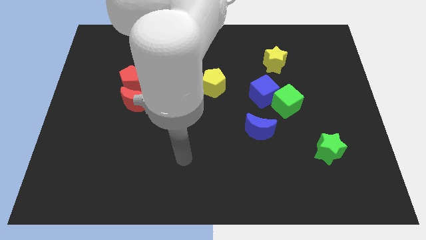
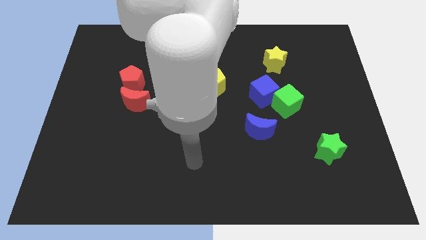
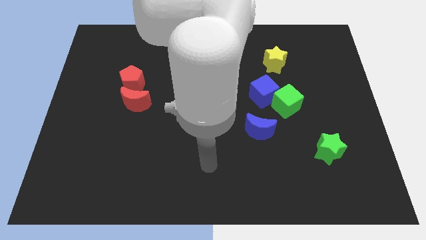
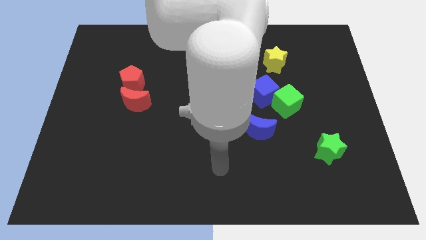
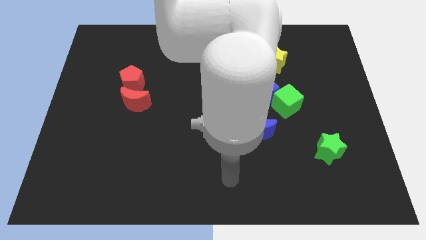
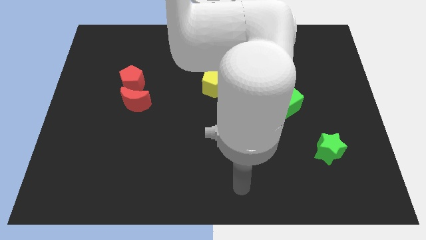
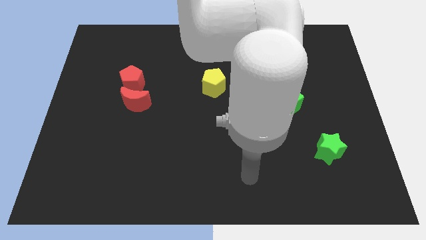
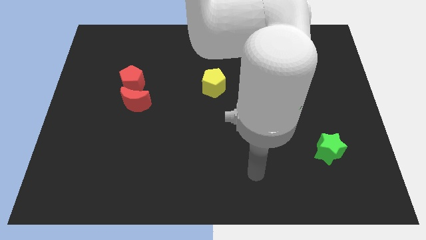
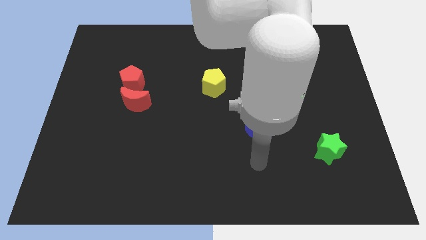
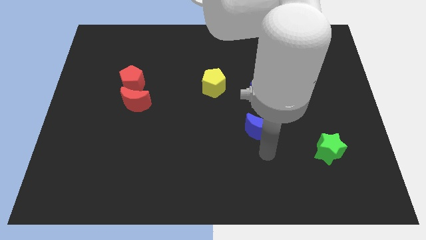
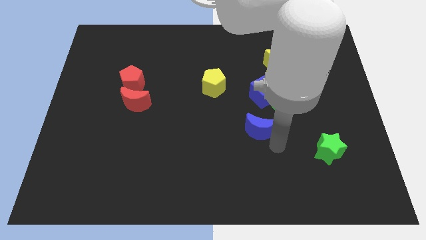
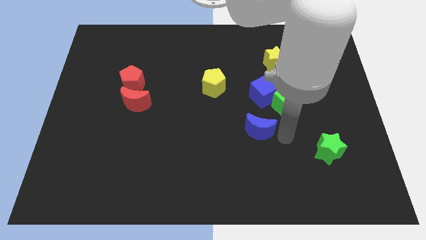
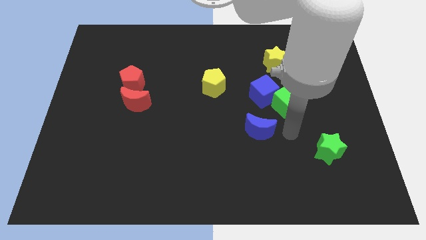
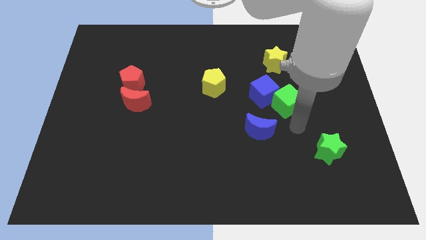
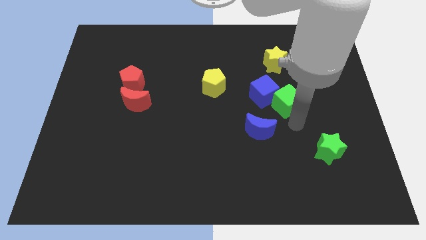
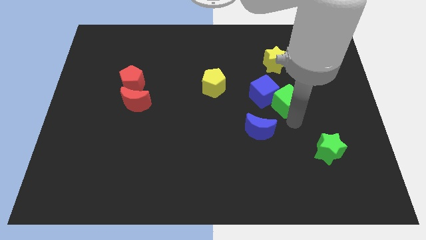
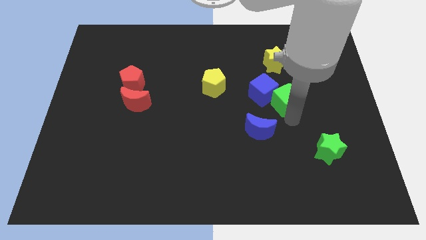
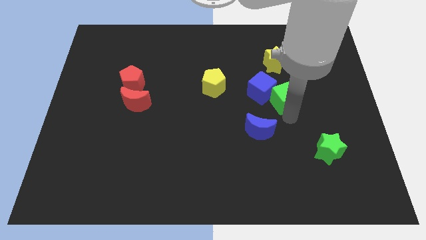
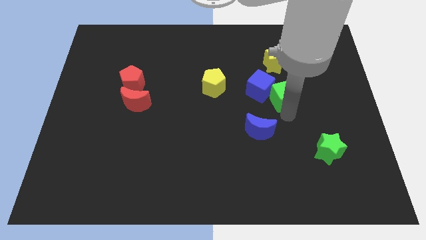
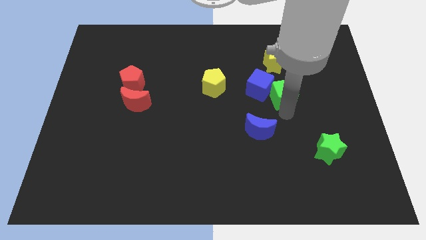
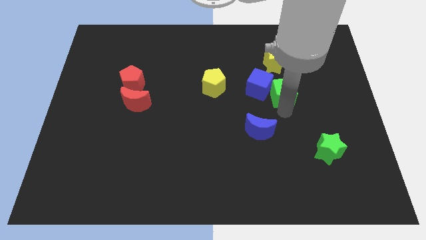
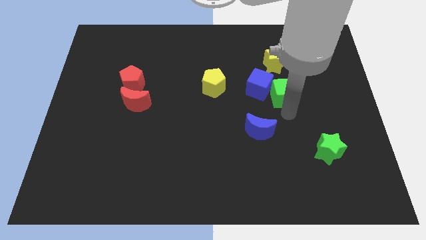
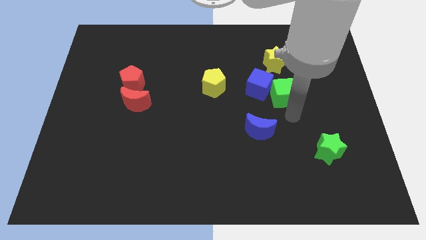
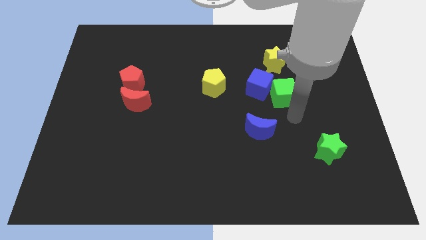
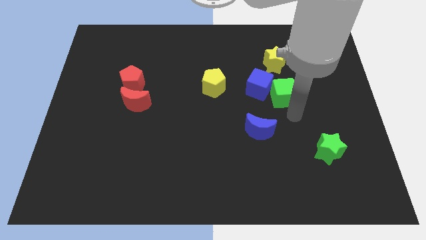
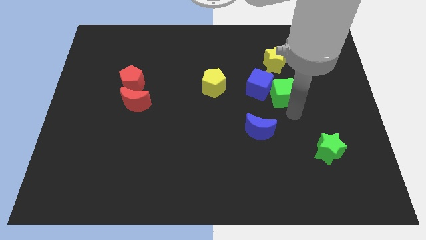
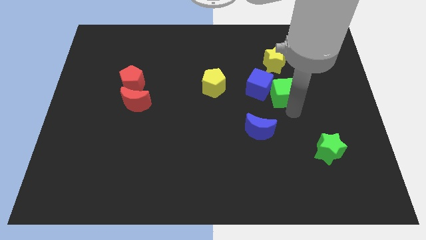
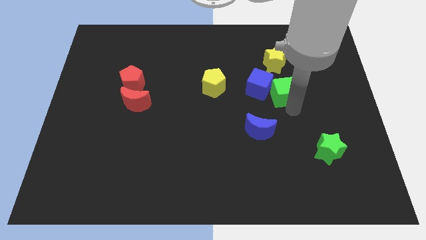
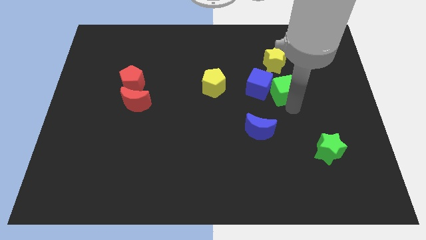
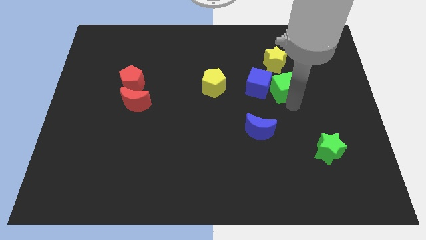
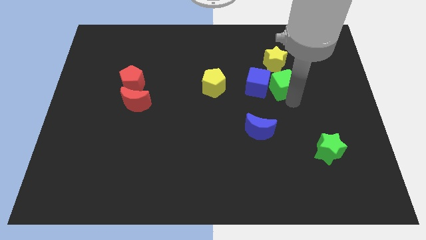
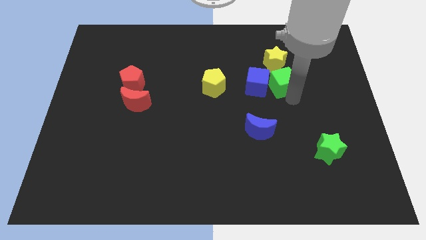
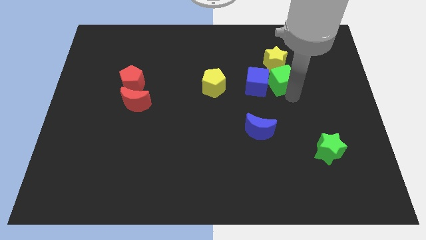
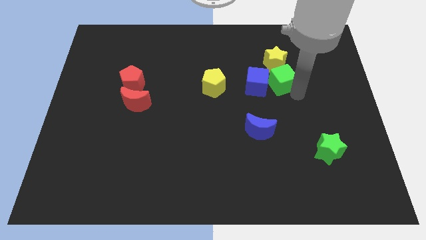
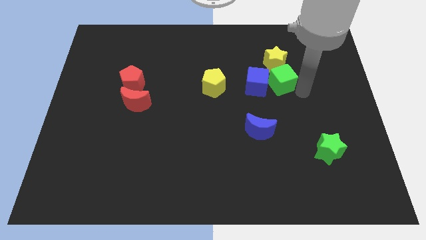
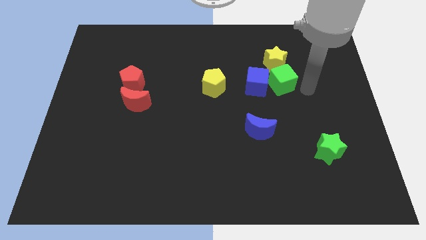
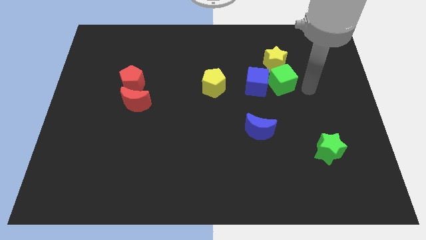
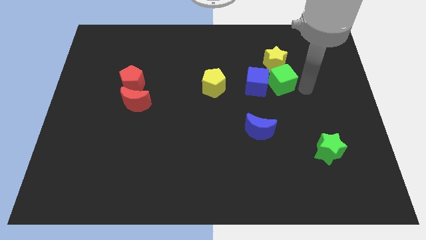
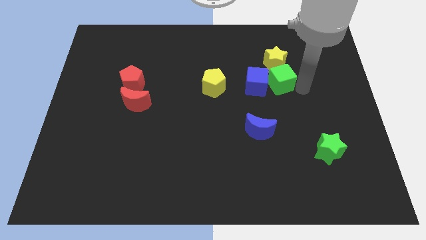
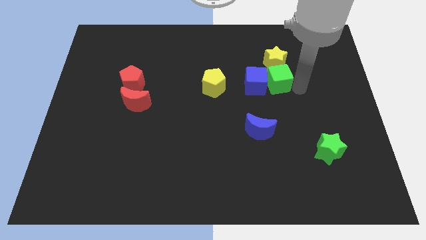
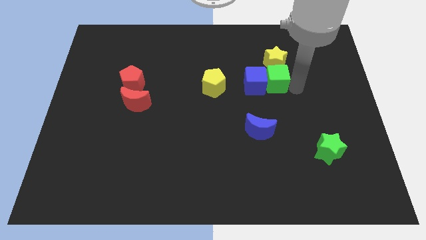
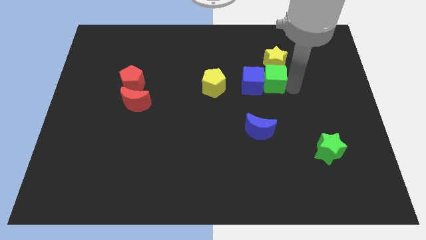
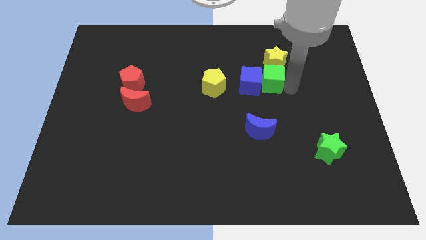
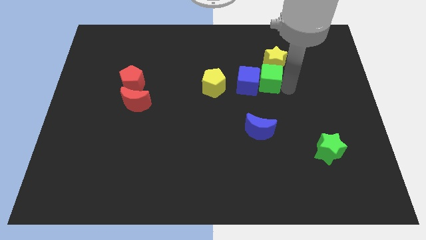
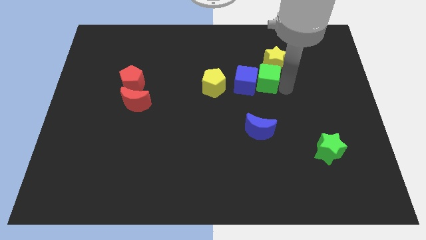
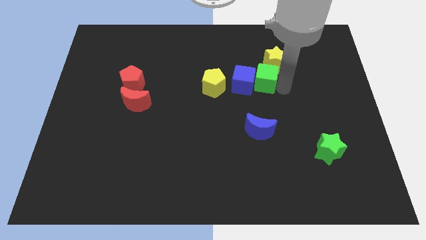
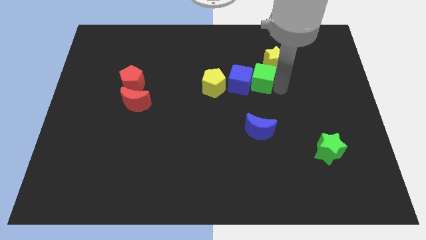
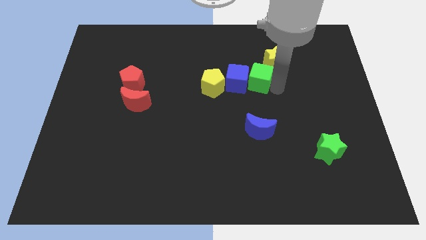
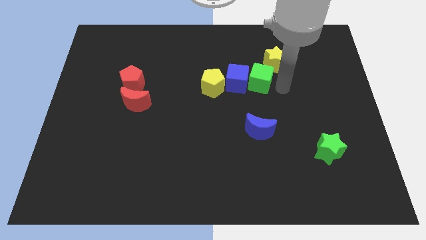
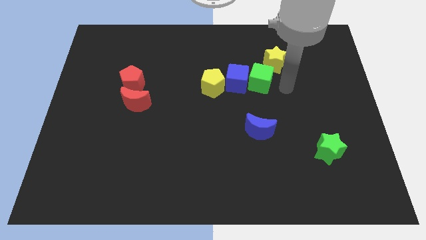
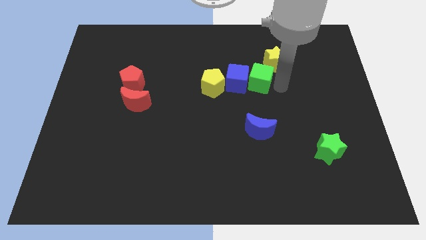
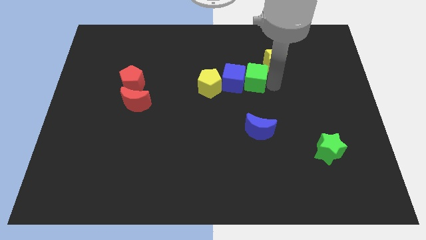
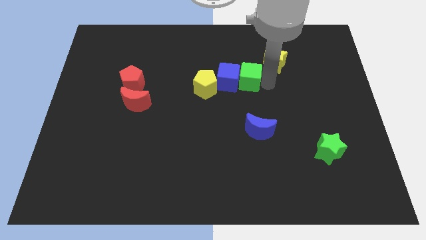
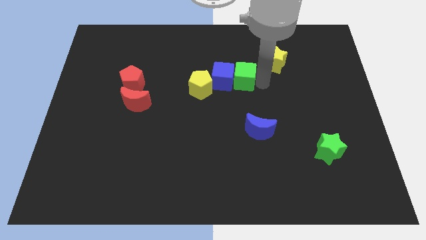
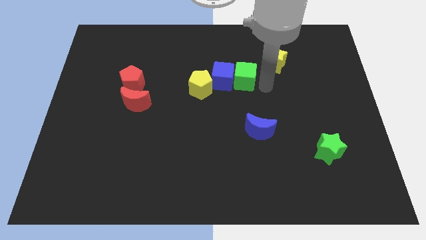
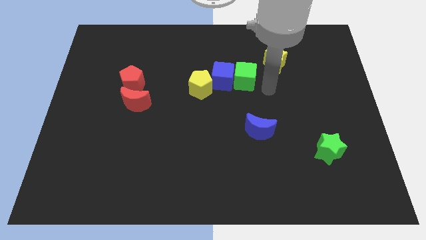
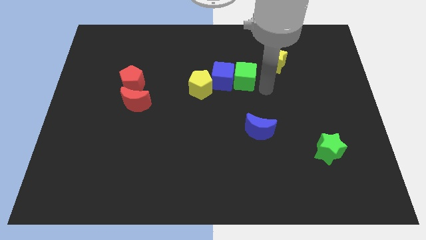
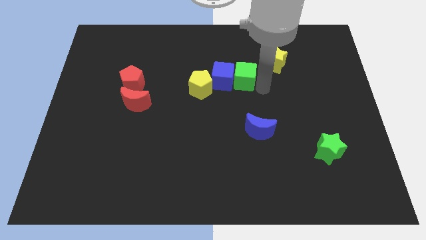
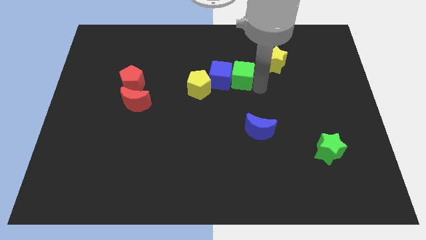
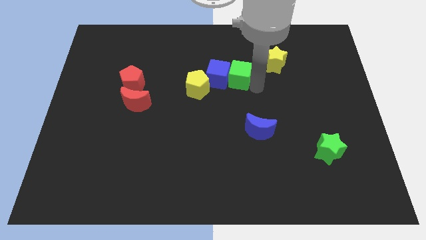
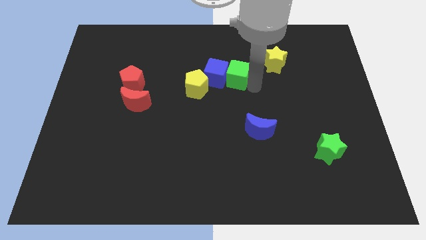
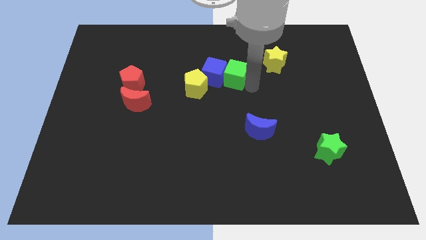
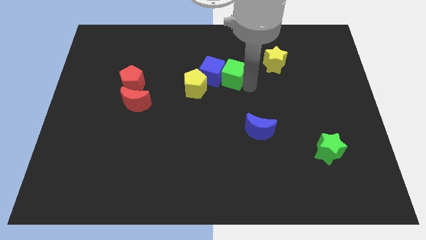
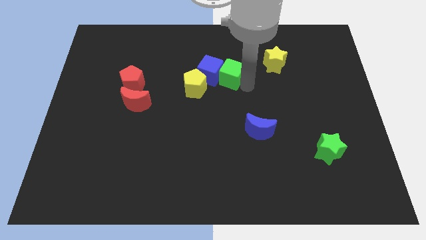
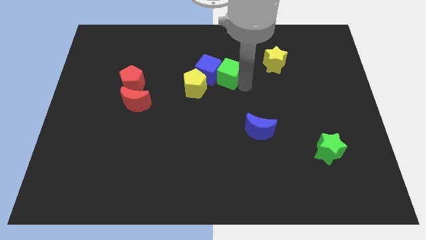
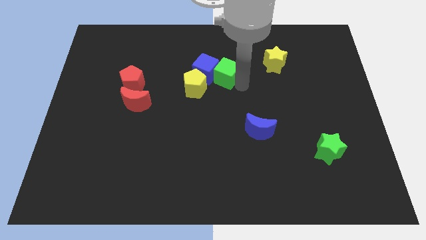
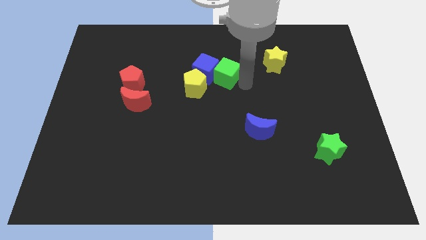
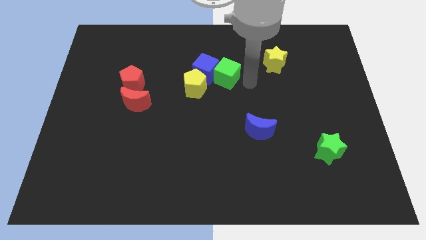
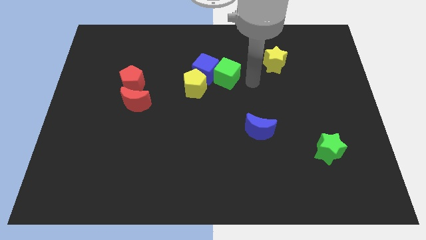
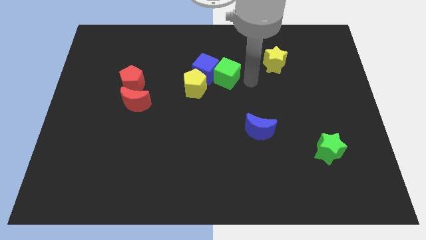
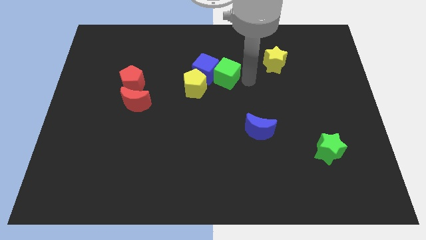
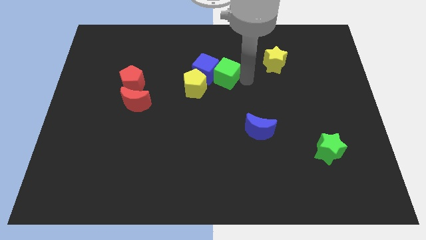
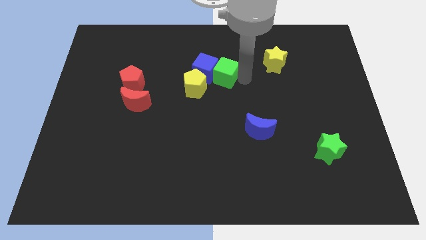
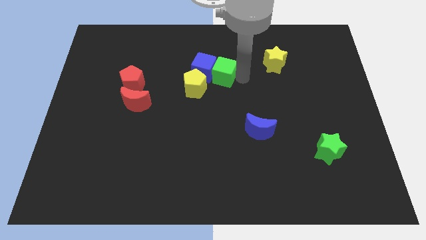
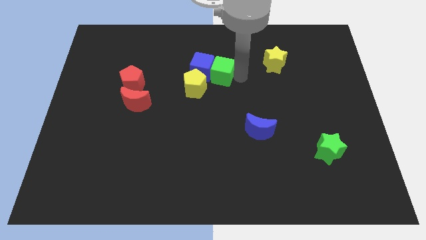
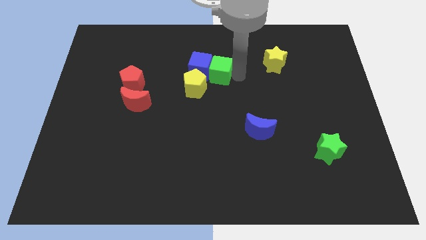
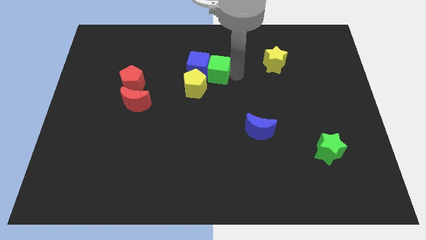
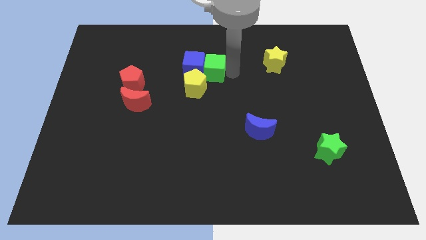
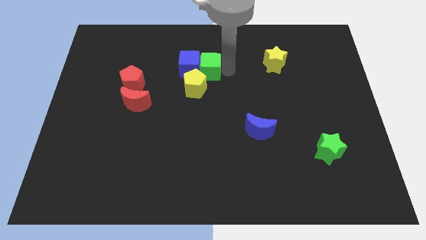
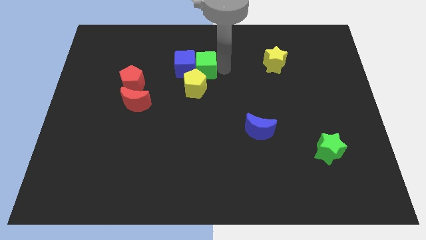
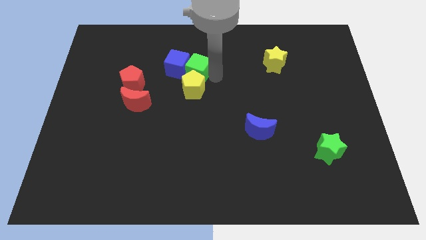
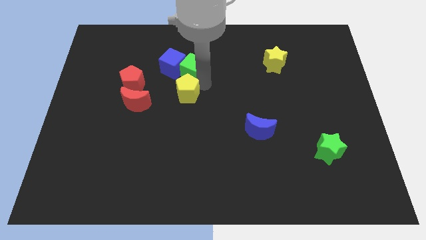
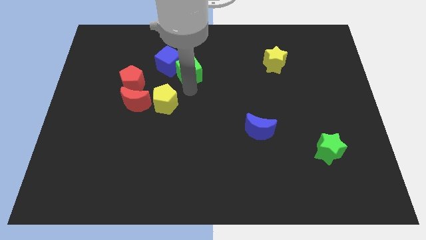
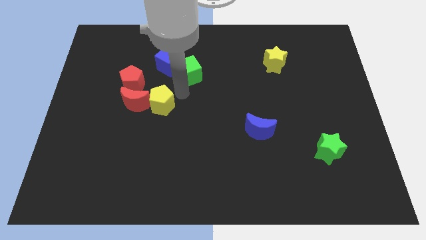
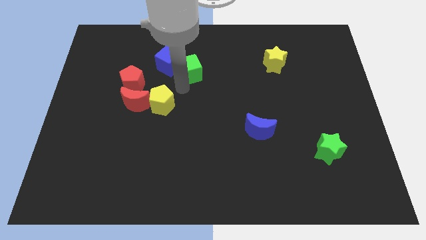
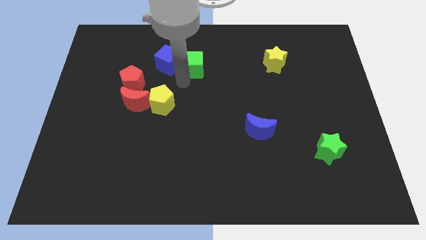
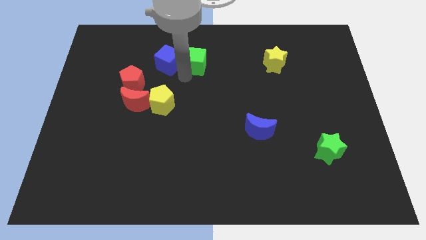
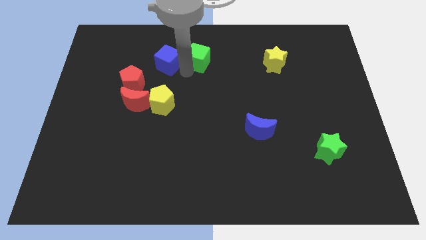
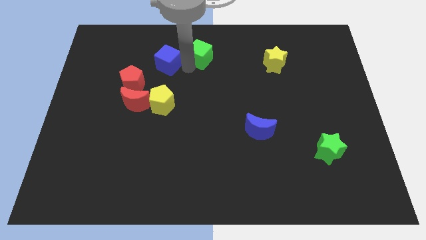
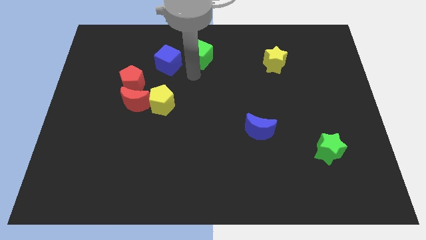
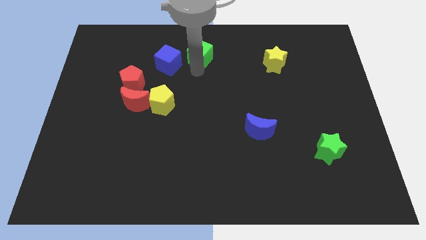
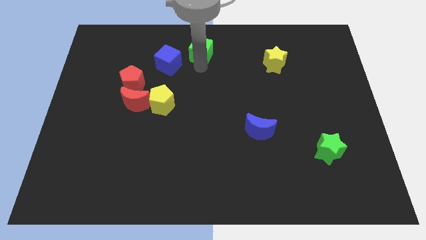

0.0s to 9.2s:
put the green cube to the top
